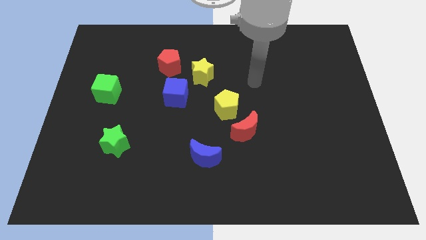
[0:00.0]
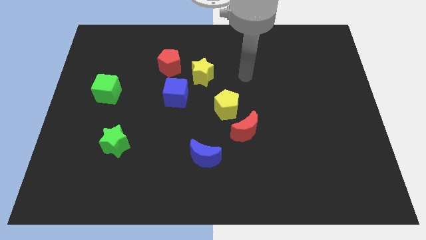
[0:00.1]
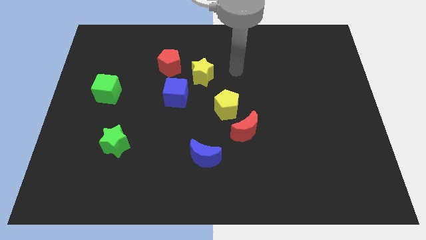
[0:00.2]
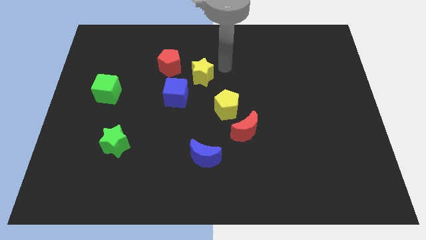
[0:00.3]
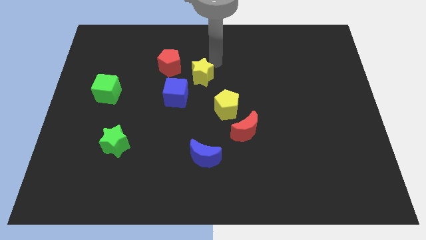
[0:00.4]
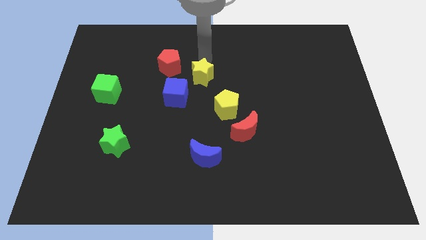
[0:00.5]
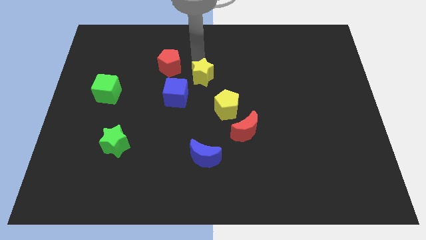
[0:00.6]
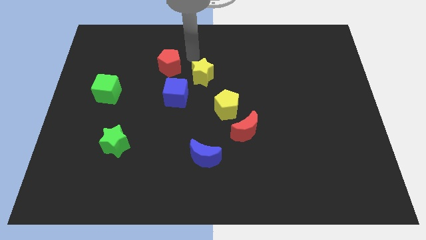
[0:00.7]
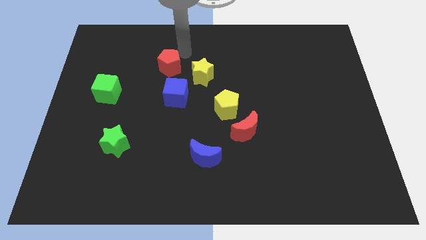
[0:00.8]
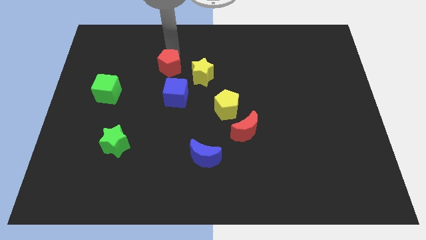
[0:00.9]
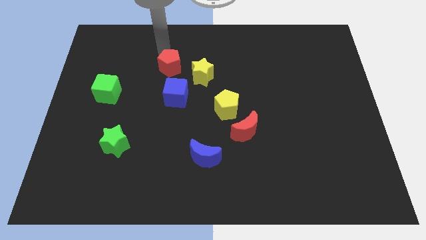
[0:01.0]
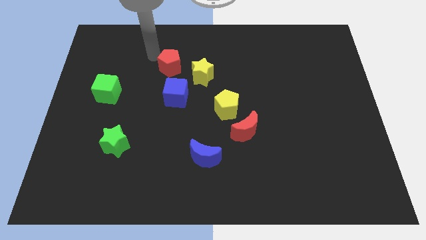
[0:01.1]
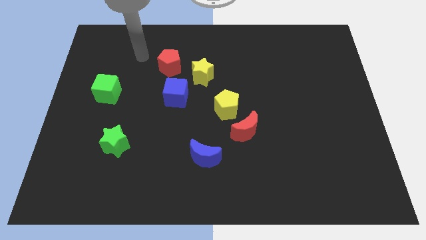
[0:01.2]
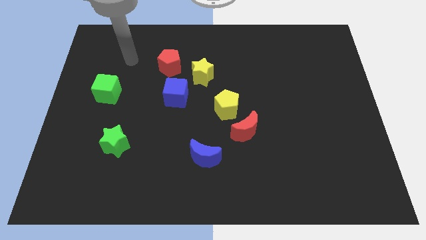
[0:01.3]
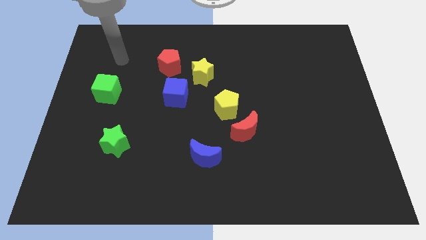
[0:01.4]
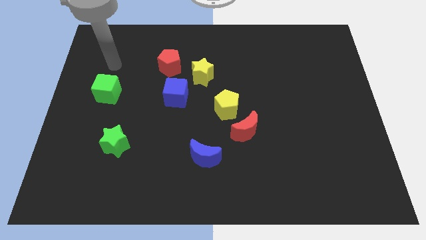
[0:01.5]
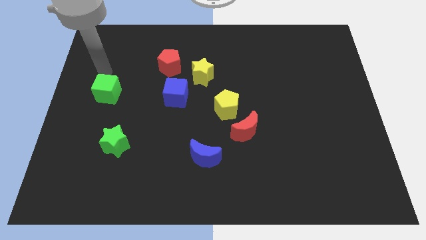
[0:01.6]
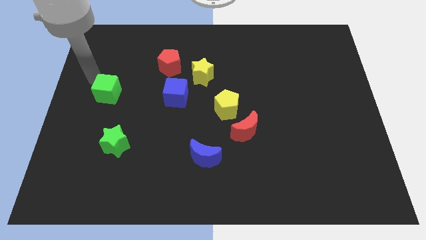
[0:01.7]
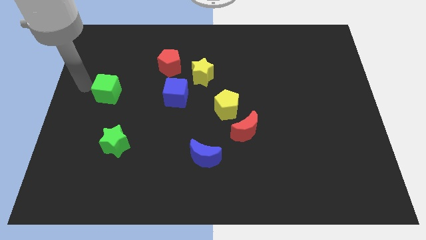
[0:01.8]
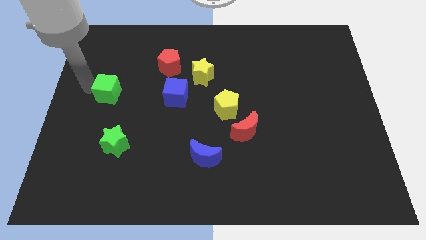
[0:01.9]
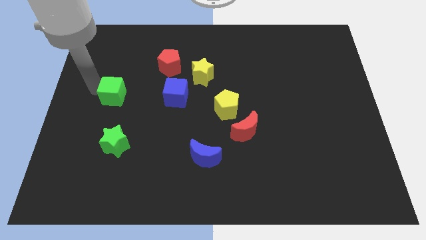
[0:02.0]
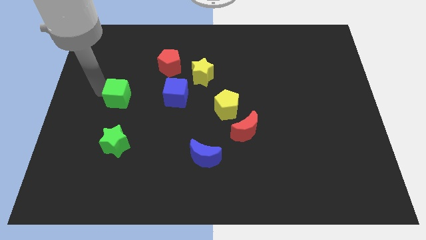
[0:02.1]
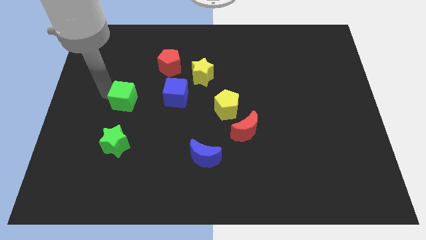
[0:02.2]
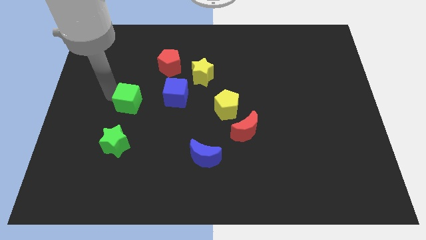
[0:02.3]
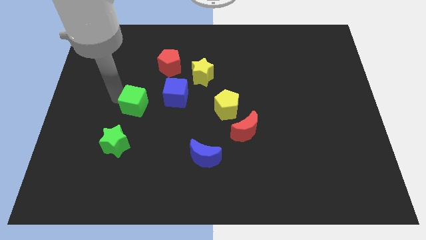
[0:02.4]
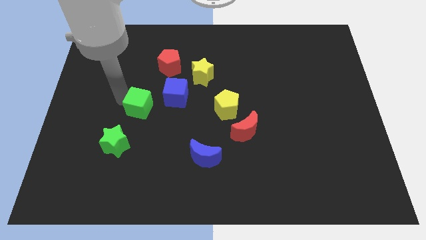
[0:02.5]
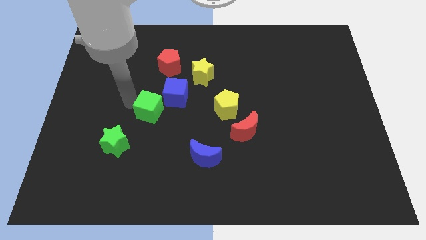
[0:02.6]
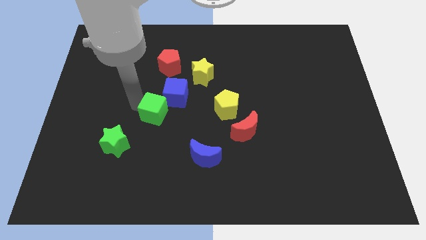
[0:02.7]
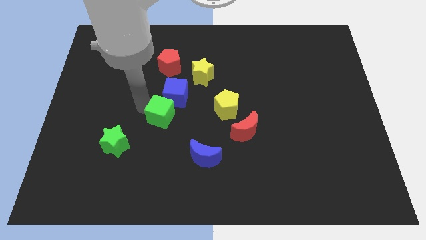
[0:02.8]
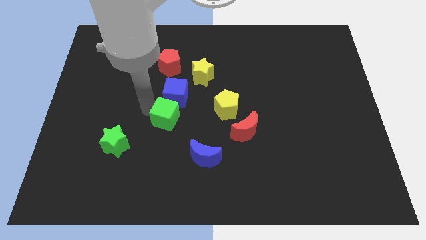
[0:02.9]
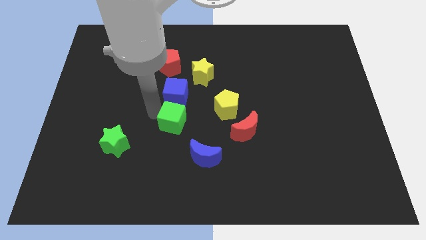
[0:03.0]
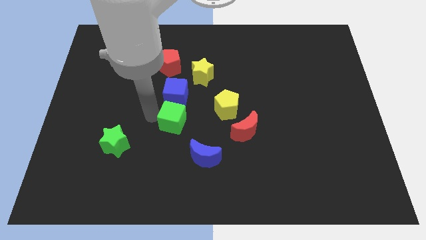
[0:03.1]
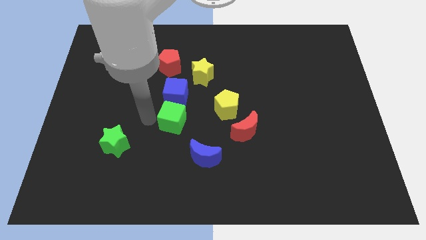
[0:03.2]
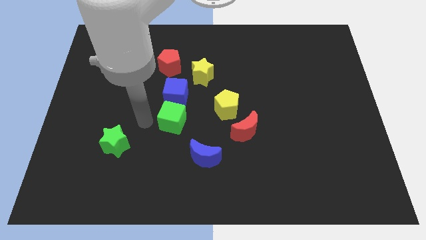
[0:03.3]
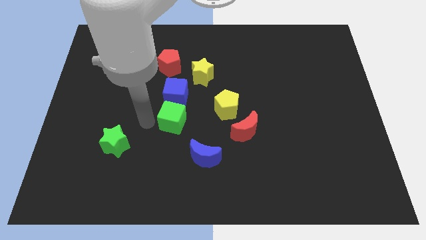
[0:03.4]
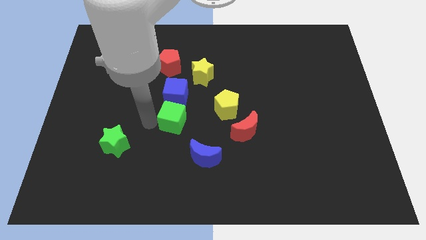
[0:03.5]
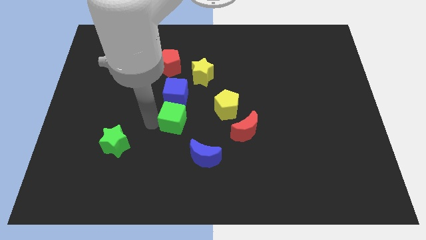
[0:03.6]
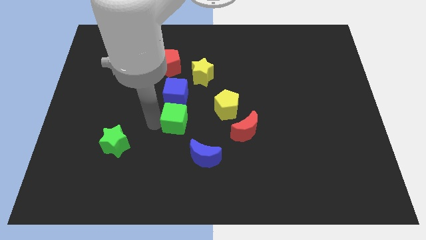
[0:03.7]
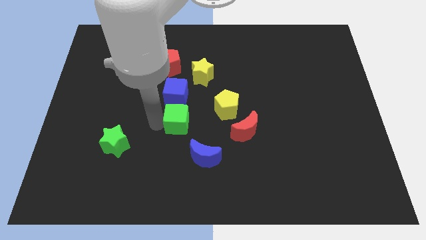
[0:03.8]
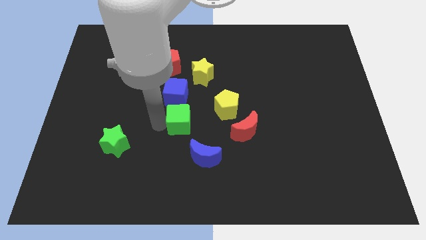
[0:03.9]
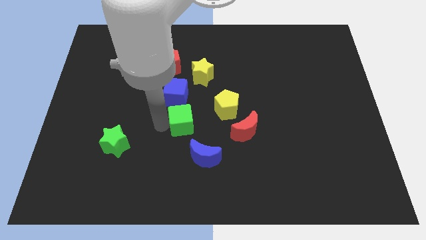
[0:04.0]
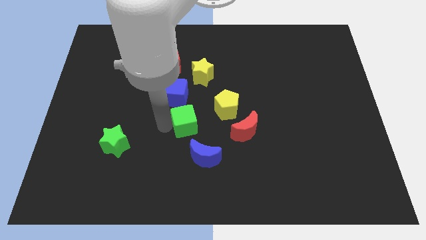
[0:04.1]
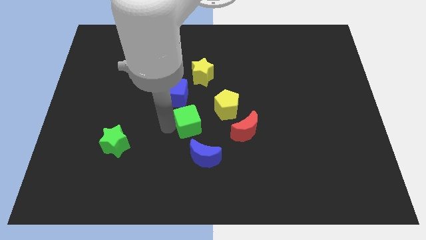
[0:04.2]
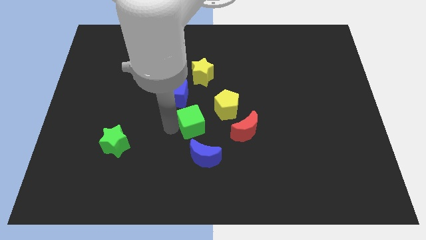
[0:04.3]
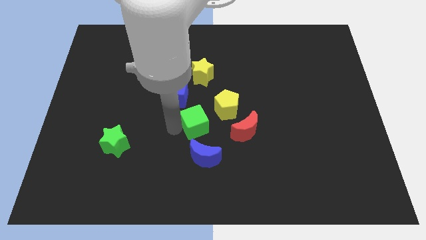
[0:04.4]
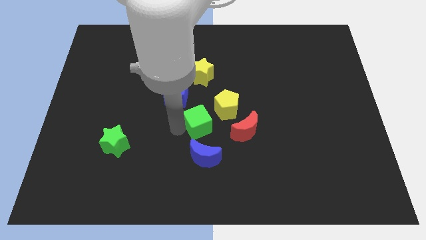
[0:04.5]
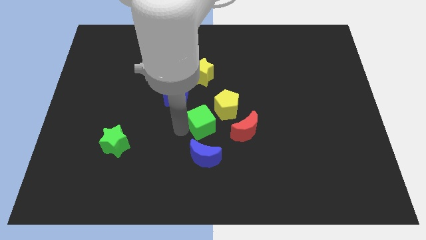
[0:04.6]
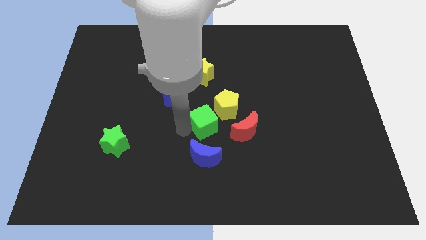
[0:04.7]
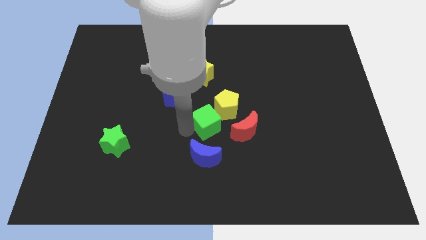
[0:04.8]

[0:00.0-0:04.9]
slide the green cube right

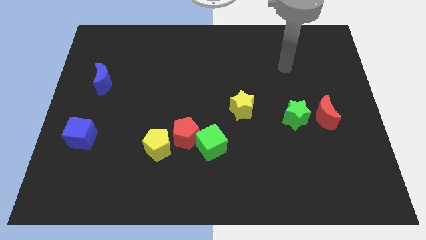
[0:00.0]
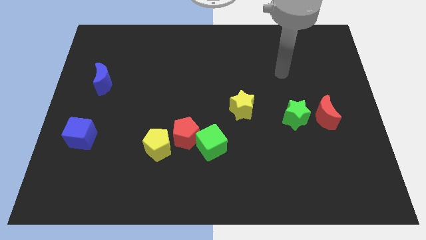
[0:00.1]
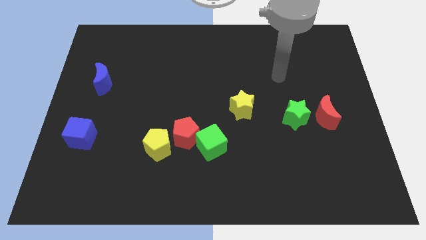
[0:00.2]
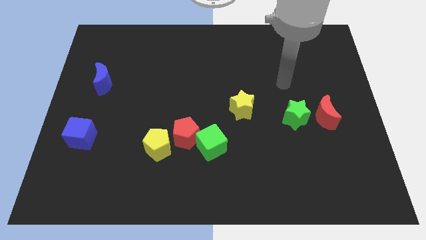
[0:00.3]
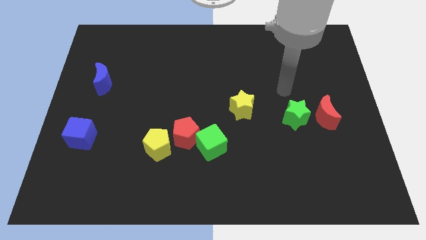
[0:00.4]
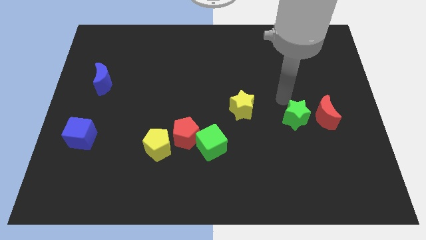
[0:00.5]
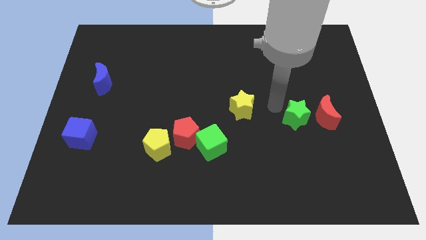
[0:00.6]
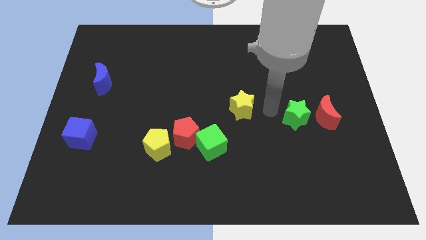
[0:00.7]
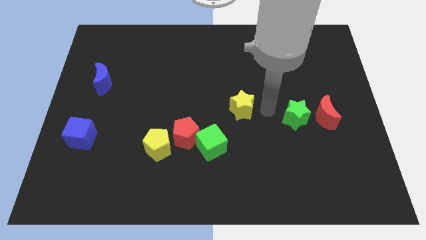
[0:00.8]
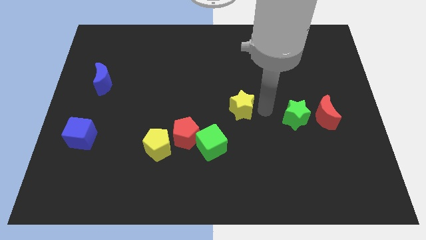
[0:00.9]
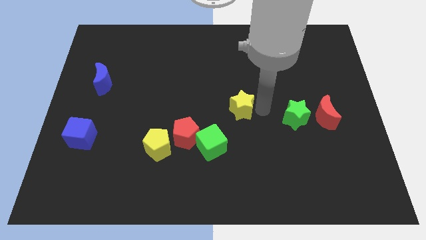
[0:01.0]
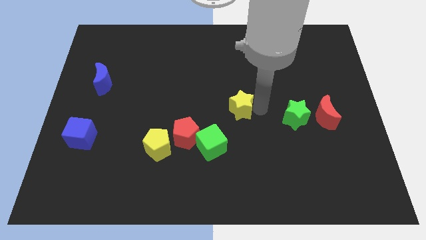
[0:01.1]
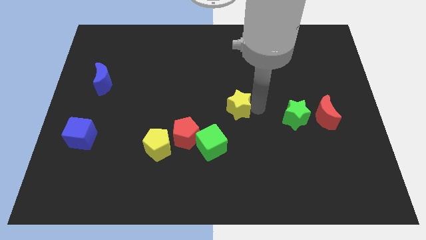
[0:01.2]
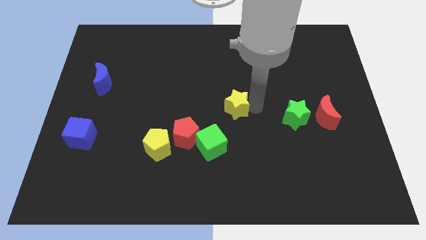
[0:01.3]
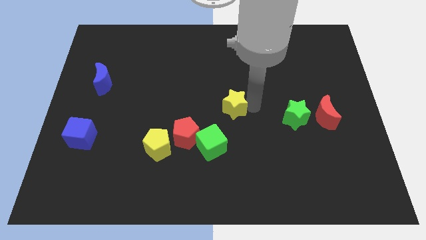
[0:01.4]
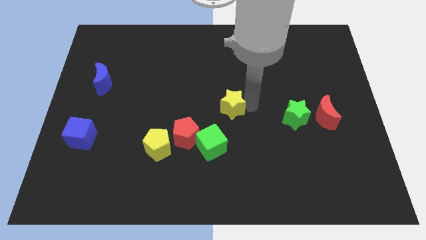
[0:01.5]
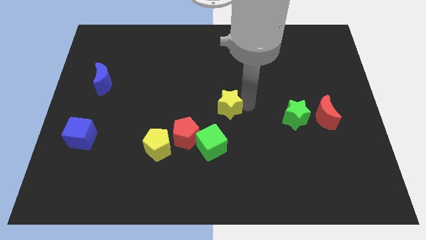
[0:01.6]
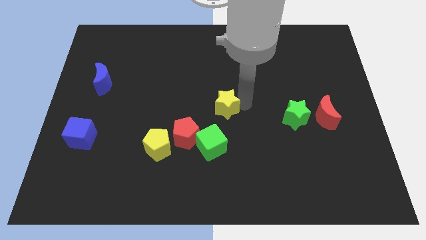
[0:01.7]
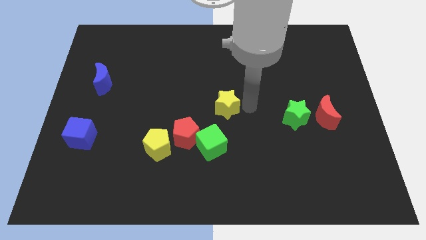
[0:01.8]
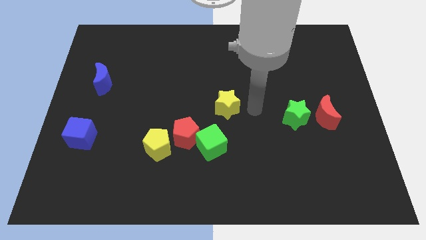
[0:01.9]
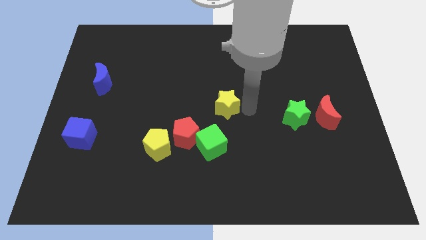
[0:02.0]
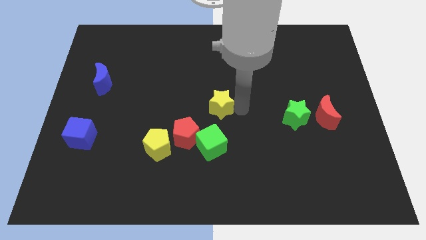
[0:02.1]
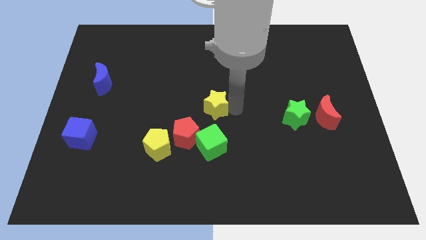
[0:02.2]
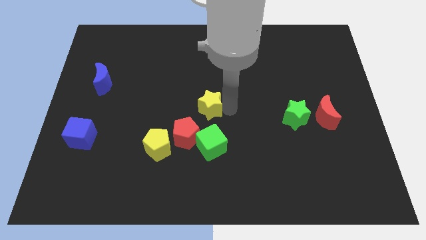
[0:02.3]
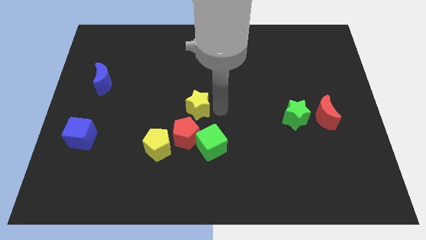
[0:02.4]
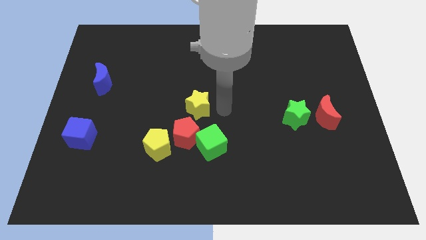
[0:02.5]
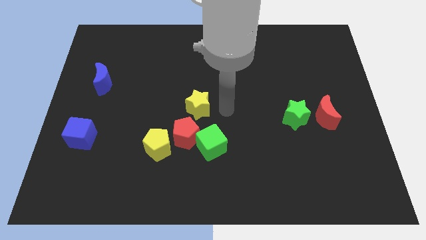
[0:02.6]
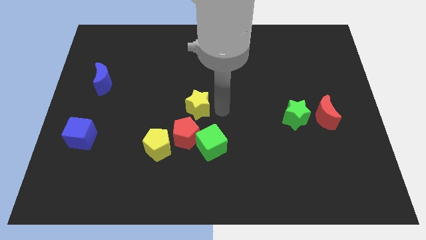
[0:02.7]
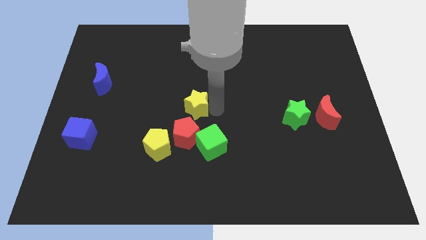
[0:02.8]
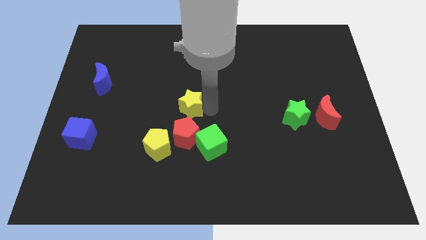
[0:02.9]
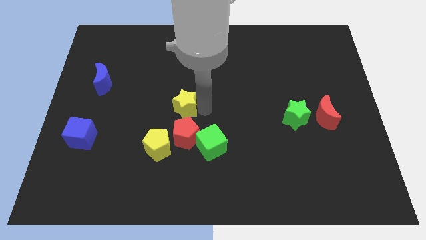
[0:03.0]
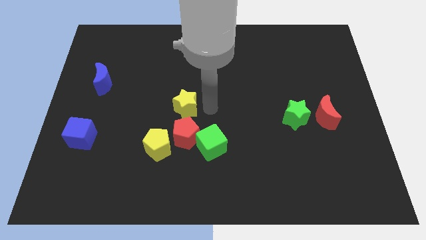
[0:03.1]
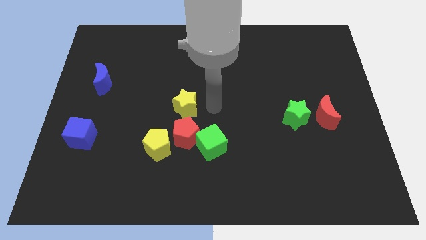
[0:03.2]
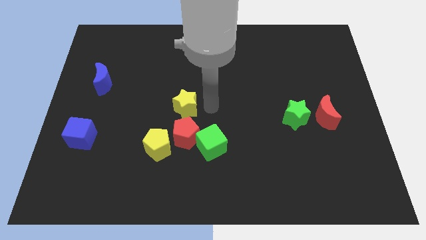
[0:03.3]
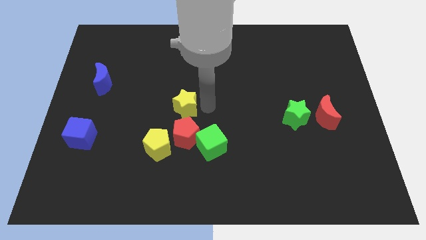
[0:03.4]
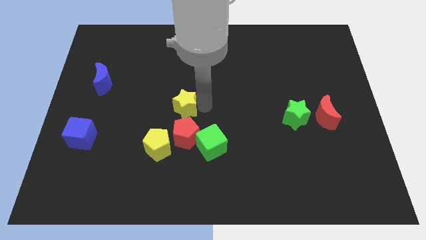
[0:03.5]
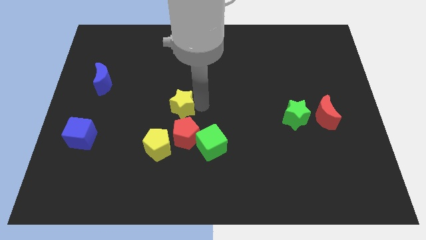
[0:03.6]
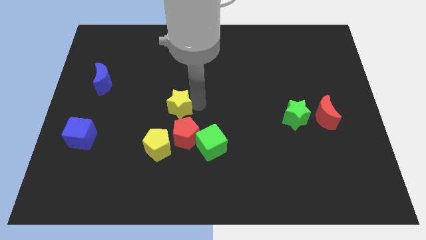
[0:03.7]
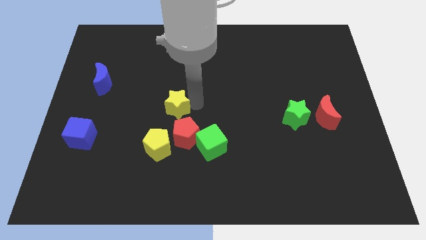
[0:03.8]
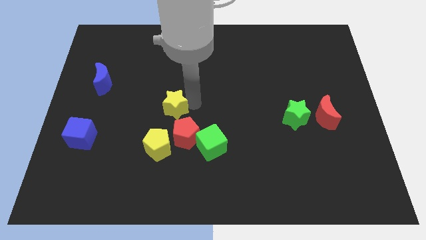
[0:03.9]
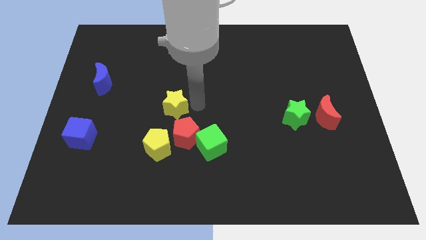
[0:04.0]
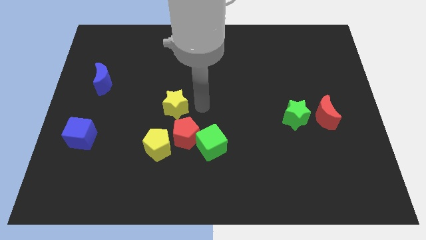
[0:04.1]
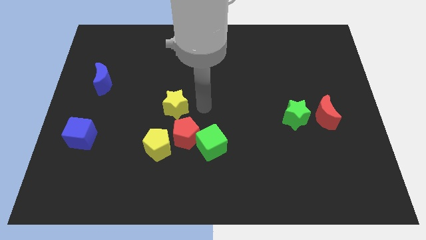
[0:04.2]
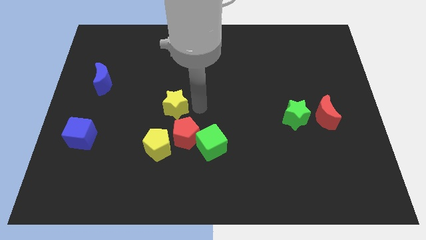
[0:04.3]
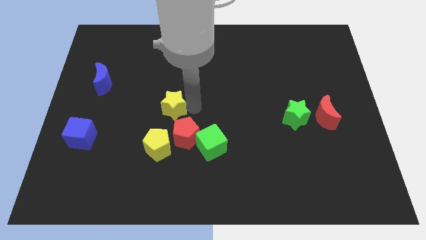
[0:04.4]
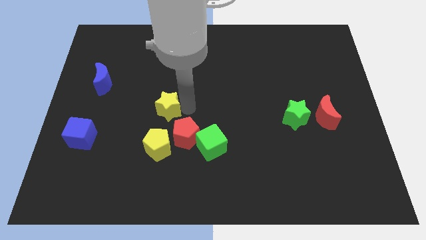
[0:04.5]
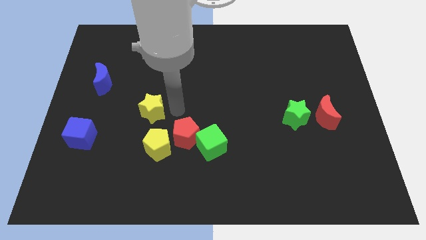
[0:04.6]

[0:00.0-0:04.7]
push the yellow star to the left
